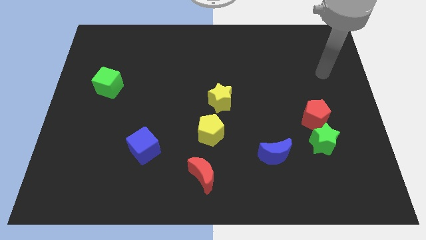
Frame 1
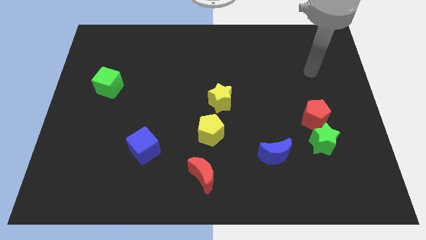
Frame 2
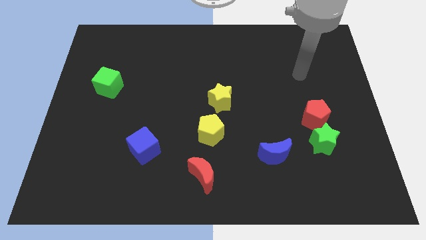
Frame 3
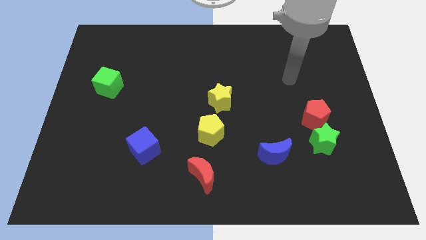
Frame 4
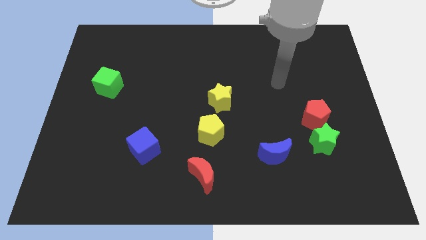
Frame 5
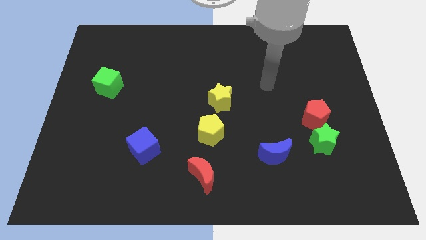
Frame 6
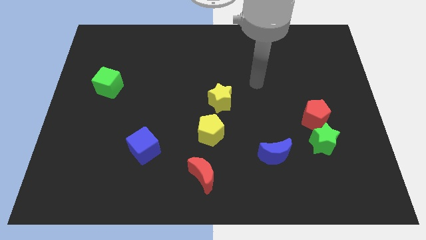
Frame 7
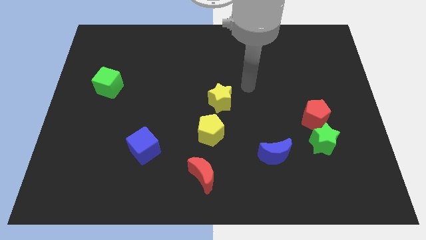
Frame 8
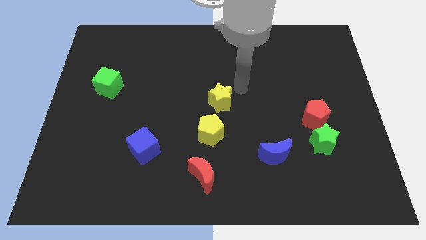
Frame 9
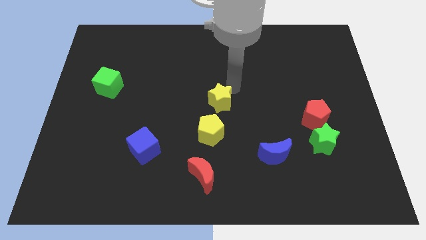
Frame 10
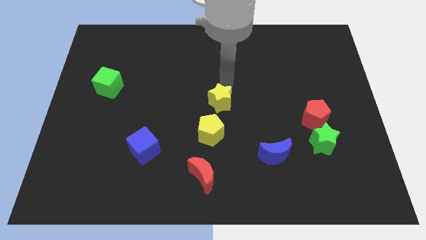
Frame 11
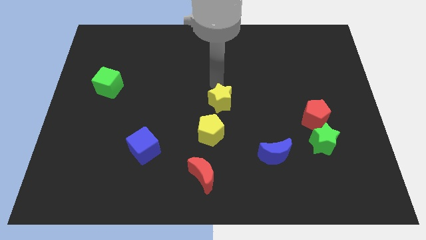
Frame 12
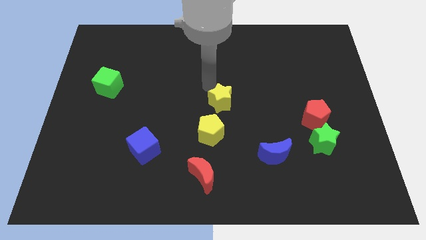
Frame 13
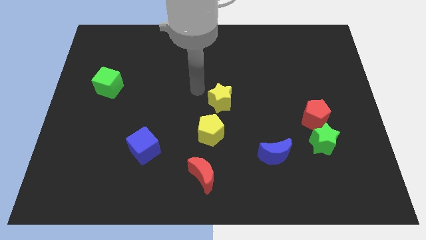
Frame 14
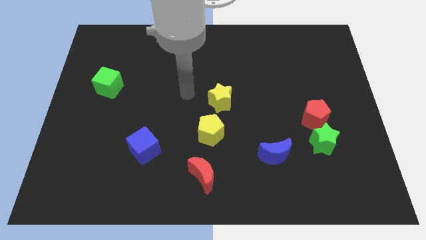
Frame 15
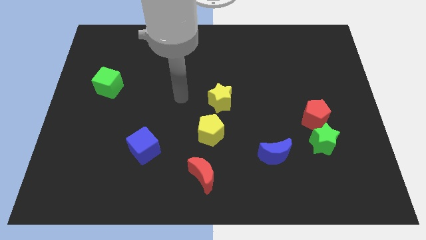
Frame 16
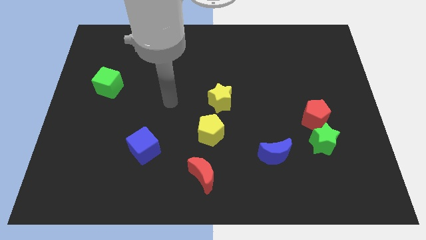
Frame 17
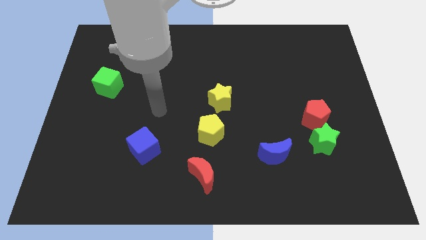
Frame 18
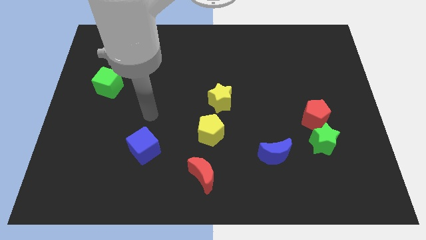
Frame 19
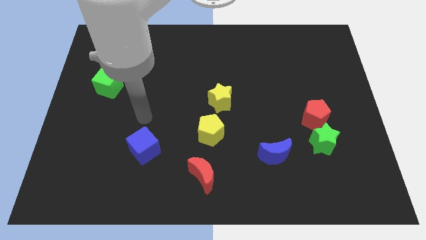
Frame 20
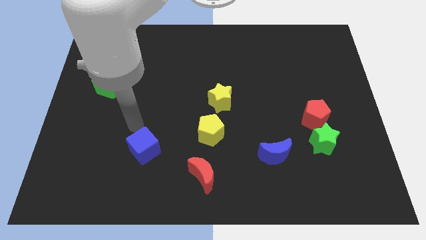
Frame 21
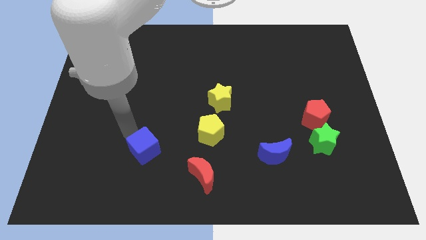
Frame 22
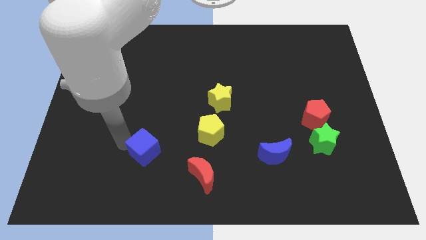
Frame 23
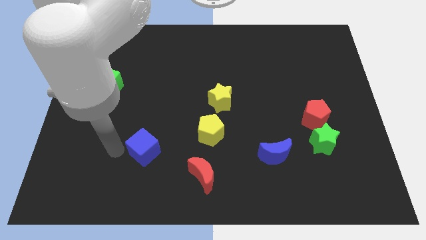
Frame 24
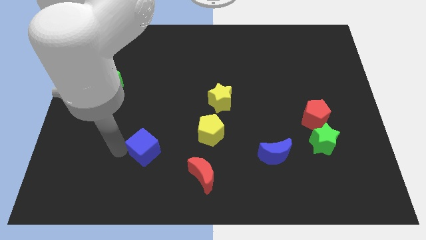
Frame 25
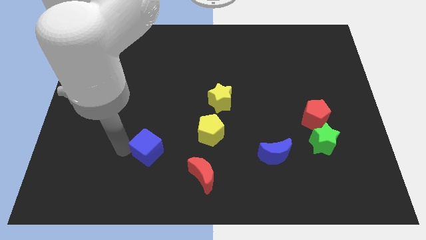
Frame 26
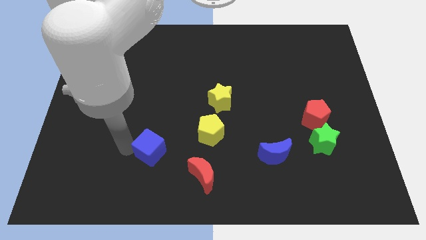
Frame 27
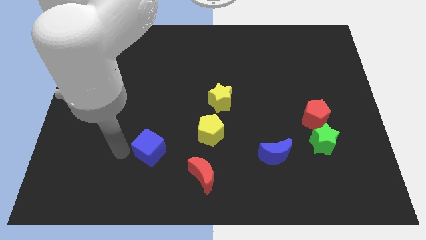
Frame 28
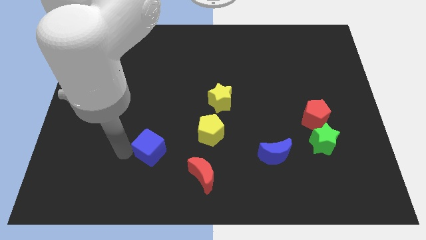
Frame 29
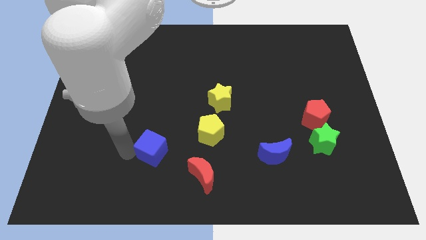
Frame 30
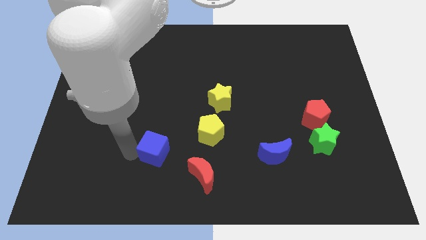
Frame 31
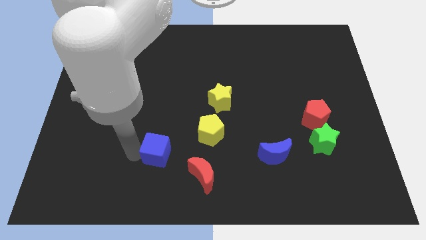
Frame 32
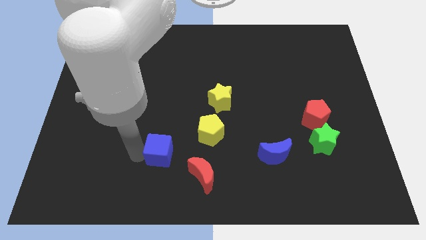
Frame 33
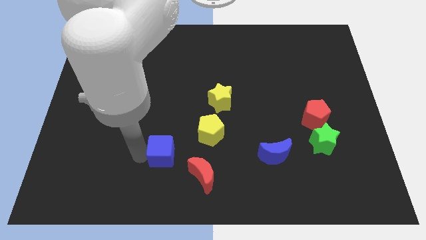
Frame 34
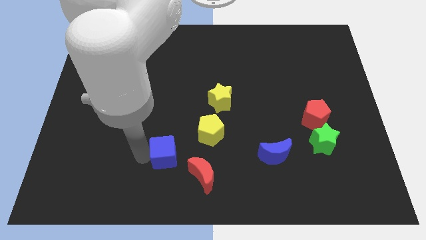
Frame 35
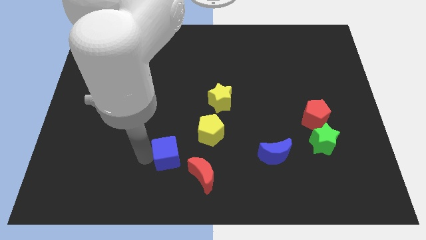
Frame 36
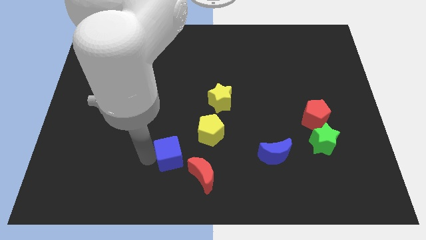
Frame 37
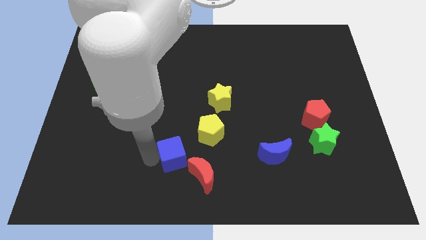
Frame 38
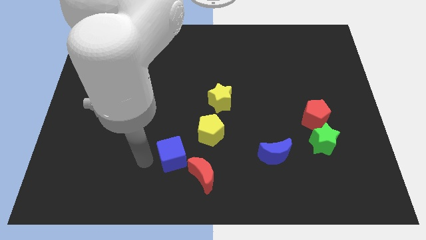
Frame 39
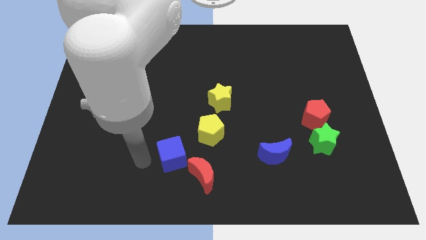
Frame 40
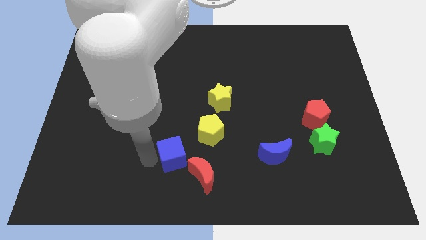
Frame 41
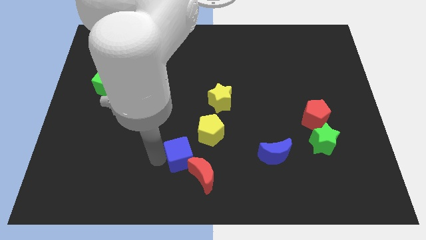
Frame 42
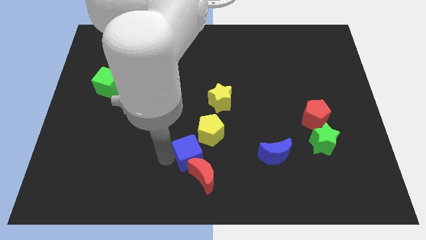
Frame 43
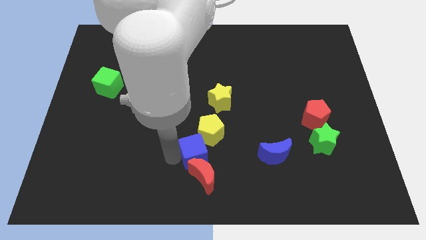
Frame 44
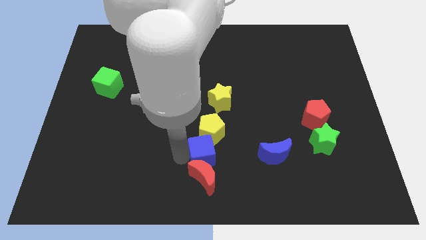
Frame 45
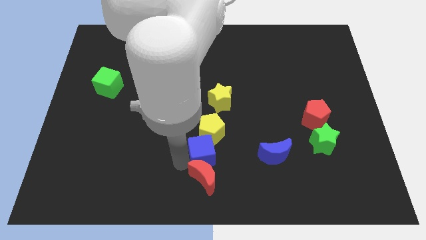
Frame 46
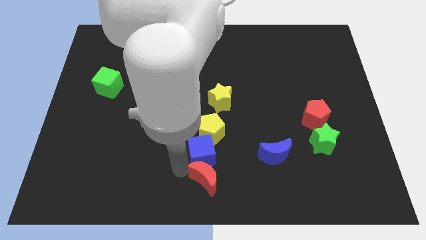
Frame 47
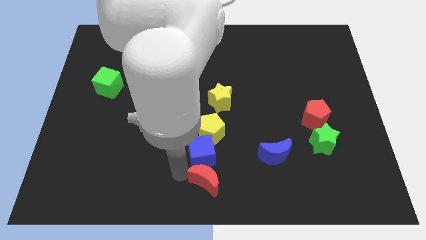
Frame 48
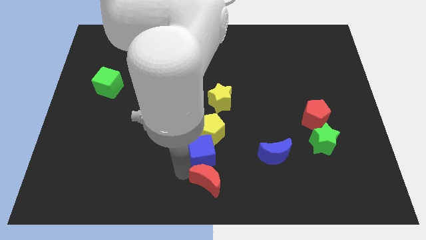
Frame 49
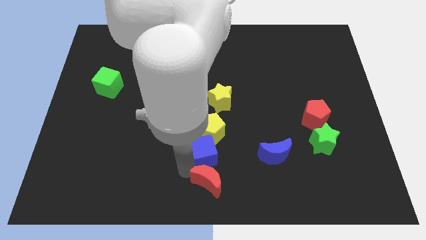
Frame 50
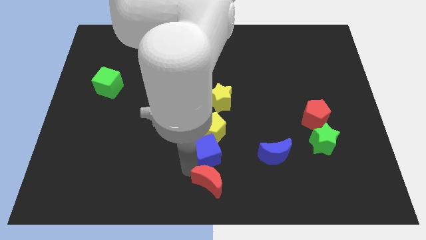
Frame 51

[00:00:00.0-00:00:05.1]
put the blue cube to the bottom side of the yellow star

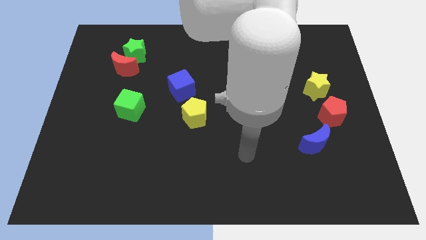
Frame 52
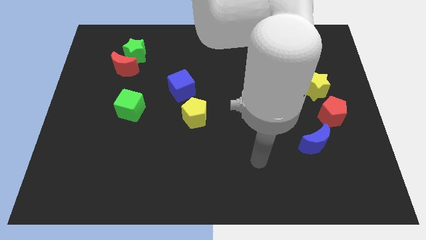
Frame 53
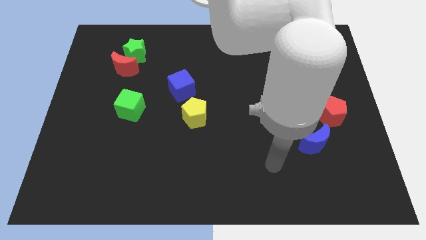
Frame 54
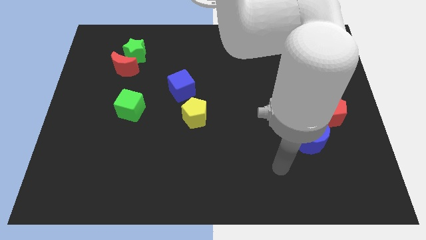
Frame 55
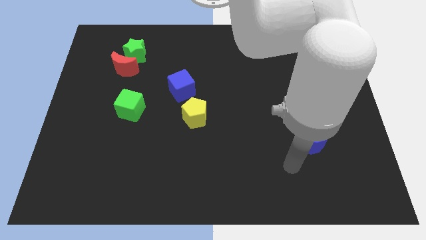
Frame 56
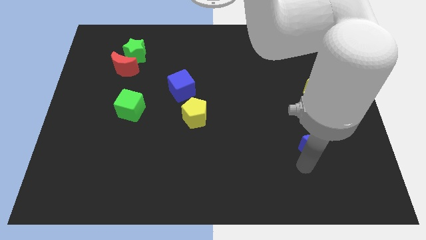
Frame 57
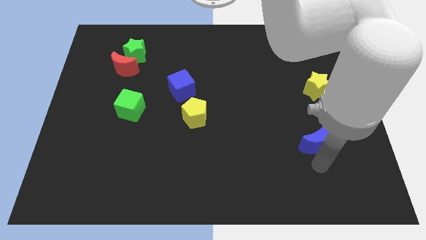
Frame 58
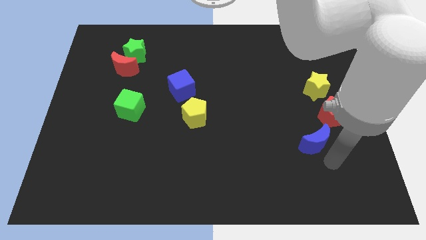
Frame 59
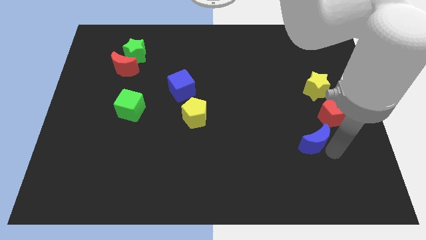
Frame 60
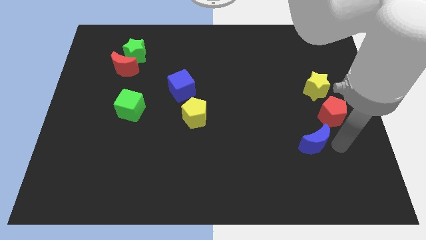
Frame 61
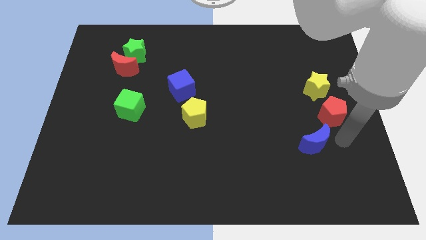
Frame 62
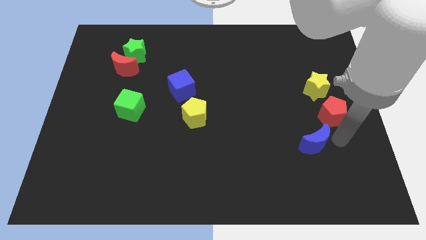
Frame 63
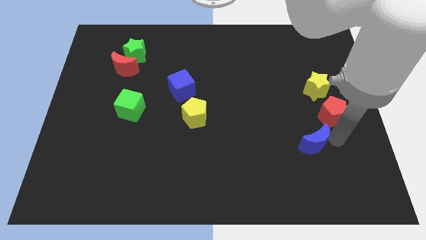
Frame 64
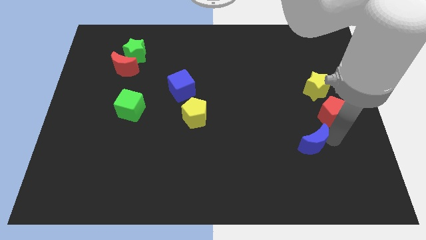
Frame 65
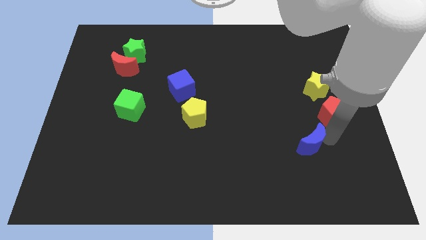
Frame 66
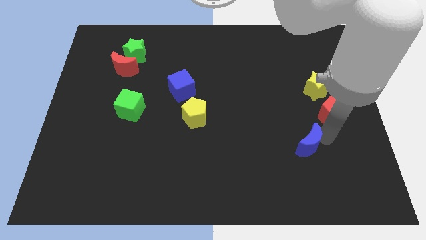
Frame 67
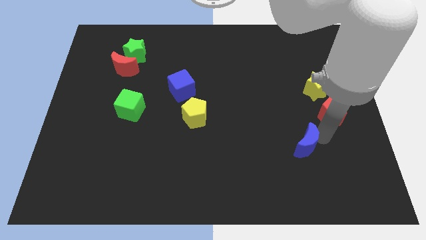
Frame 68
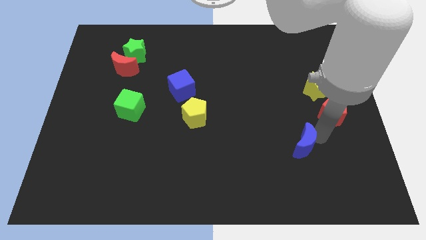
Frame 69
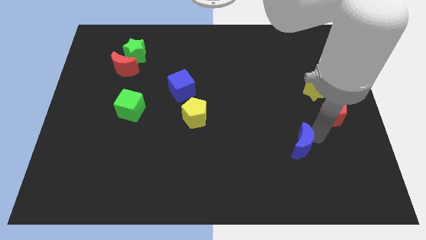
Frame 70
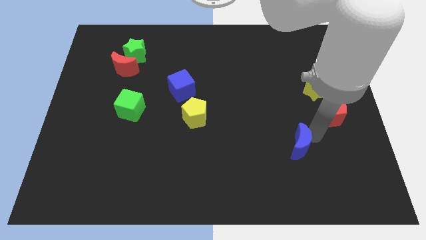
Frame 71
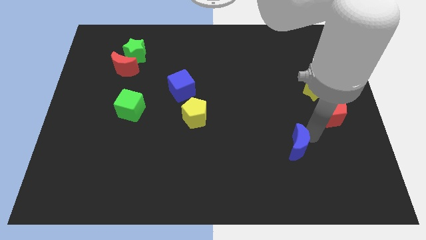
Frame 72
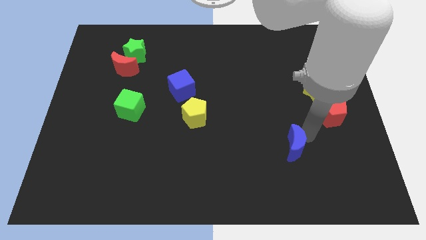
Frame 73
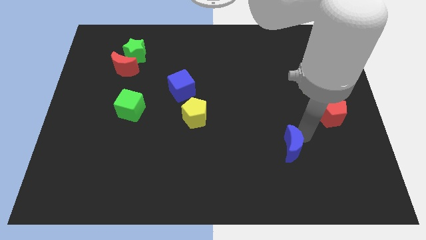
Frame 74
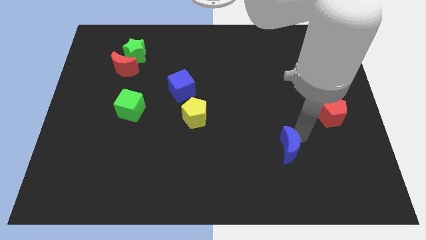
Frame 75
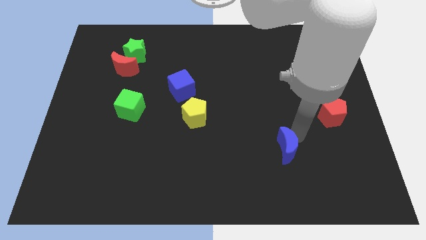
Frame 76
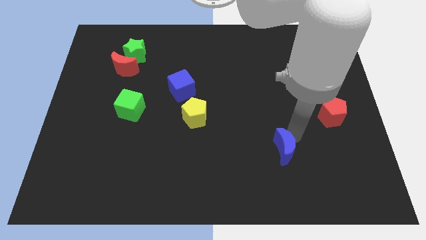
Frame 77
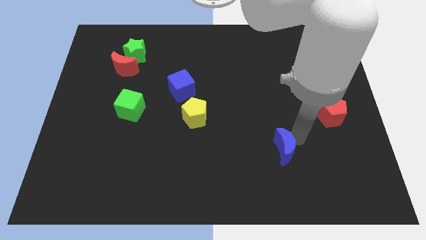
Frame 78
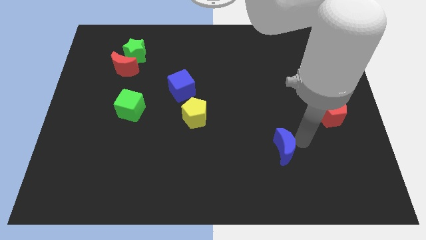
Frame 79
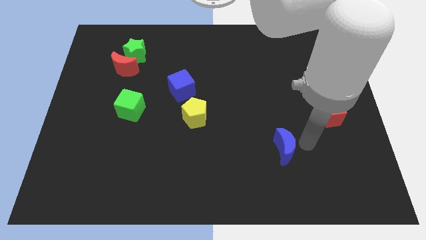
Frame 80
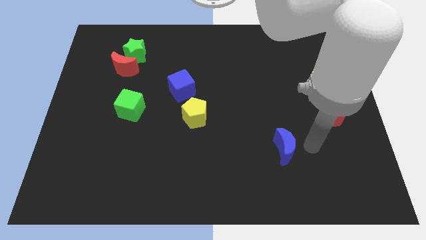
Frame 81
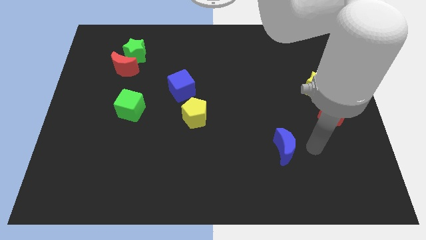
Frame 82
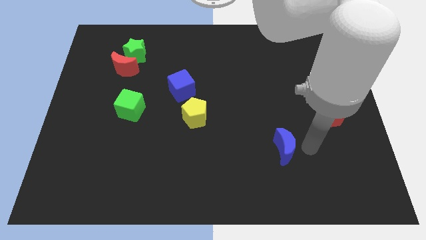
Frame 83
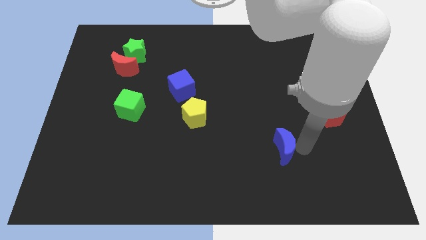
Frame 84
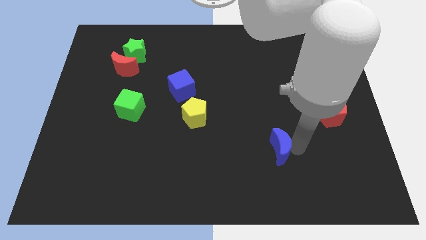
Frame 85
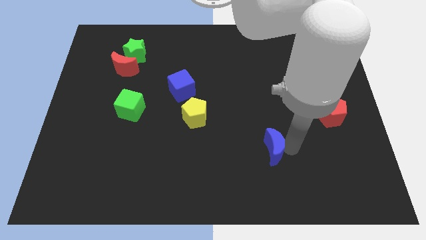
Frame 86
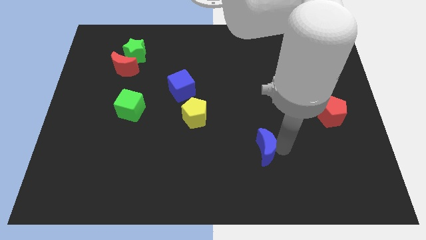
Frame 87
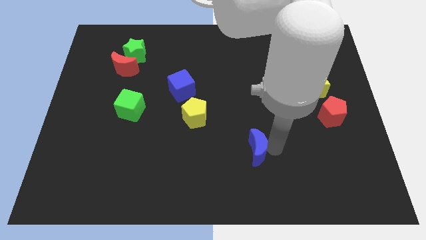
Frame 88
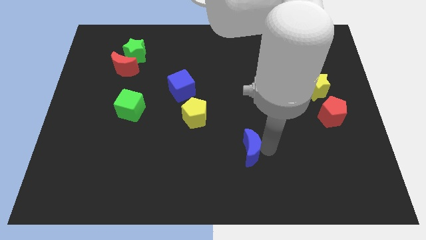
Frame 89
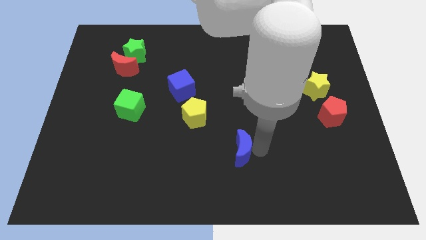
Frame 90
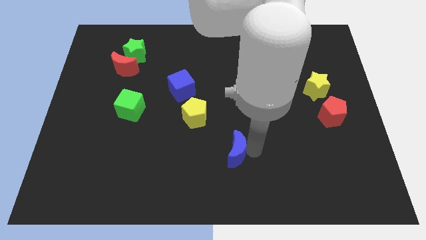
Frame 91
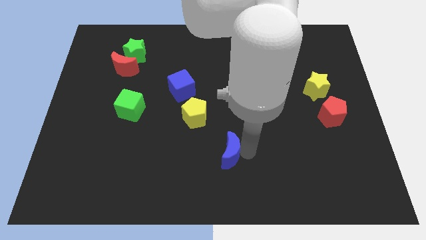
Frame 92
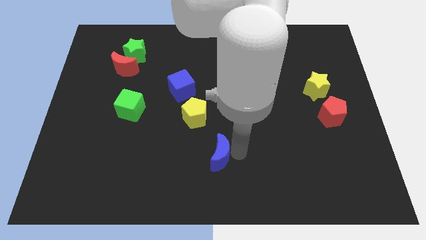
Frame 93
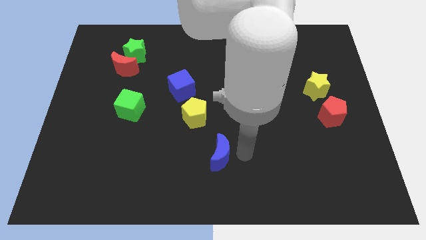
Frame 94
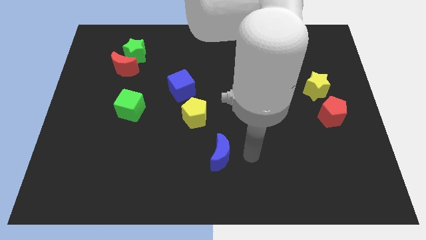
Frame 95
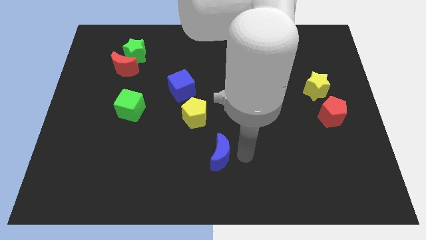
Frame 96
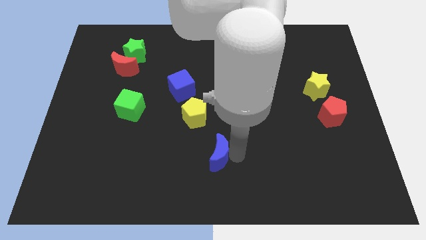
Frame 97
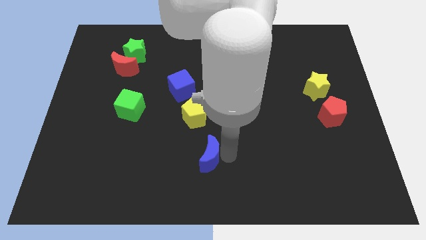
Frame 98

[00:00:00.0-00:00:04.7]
put the blue moon to the bottom of the yellow pentagon
